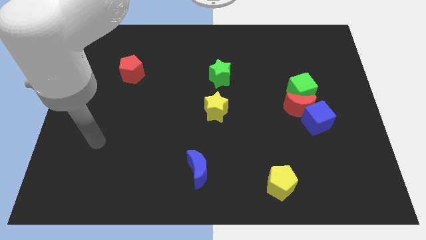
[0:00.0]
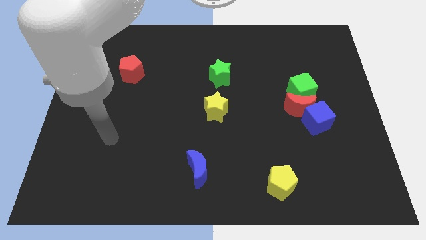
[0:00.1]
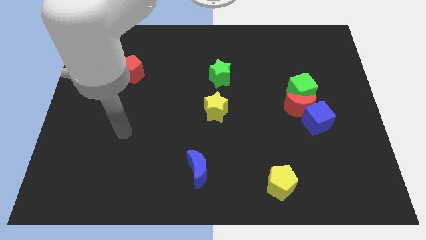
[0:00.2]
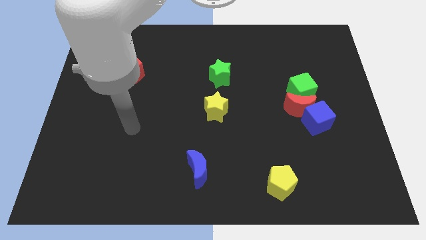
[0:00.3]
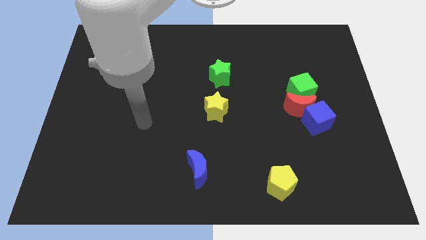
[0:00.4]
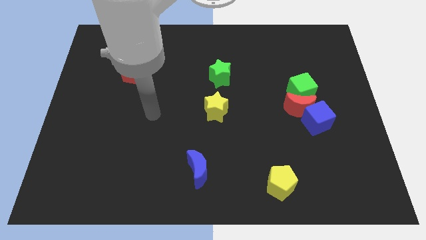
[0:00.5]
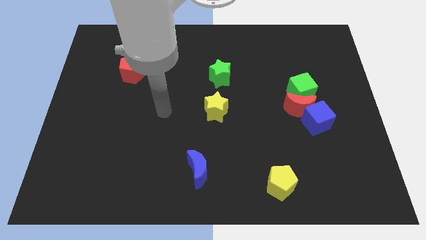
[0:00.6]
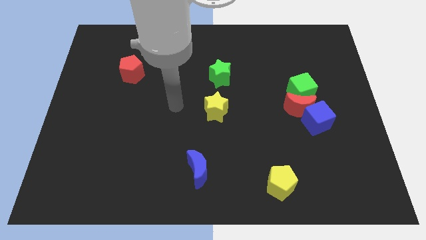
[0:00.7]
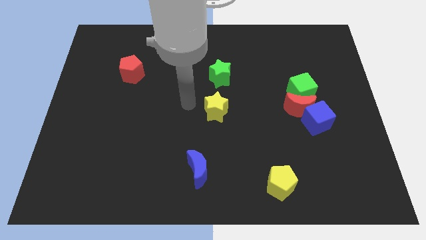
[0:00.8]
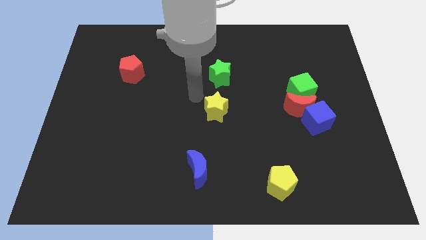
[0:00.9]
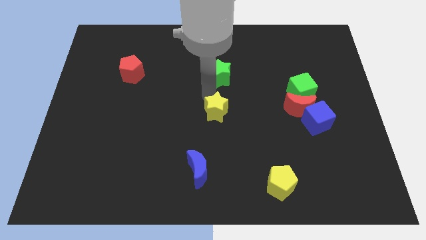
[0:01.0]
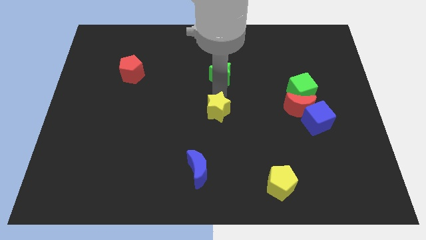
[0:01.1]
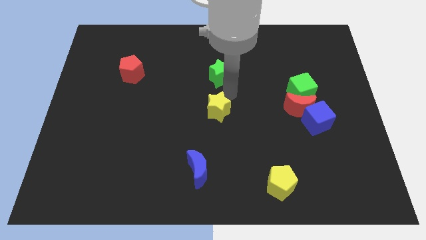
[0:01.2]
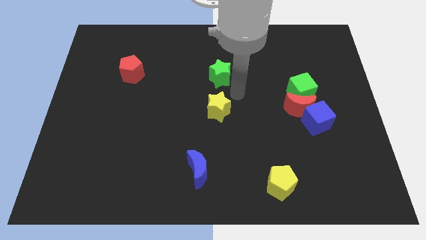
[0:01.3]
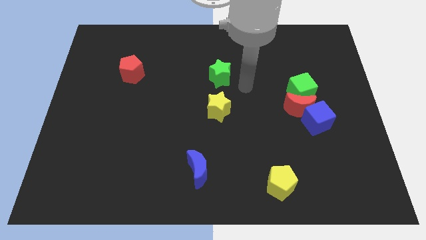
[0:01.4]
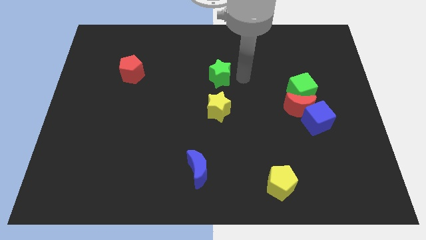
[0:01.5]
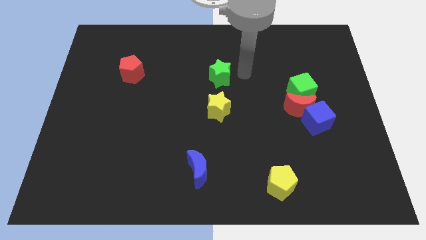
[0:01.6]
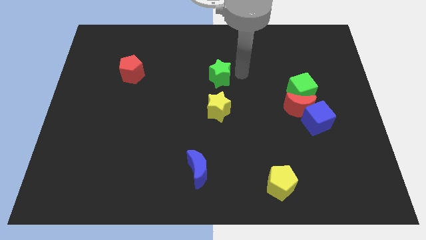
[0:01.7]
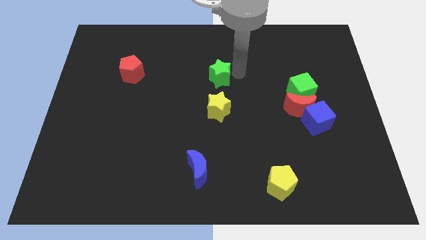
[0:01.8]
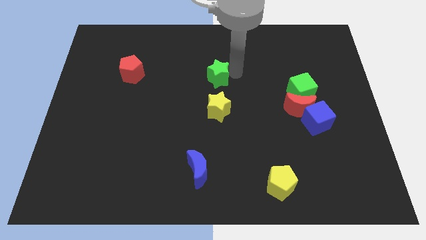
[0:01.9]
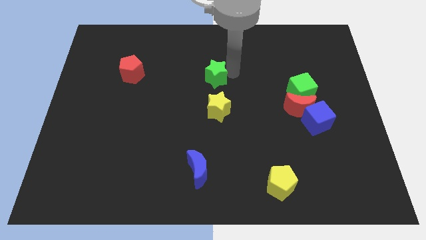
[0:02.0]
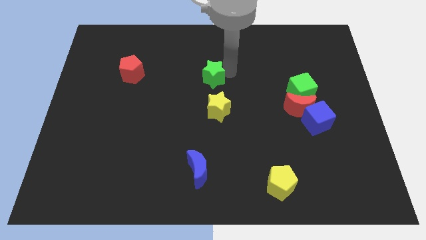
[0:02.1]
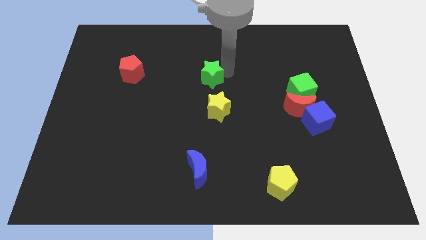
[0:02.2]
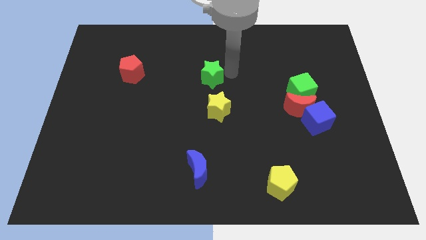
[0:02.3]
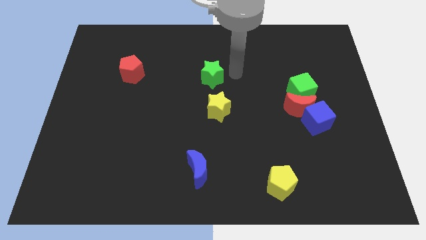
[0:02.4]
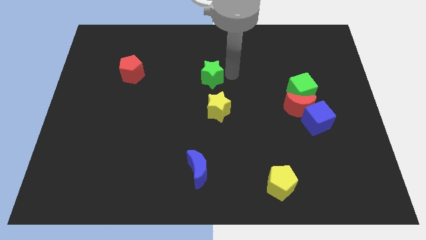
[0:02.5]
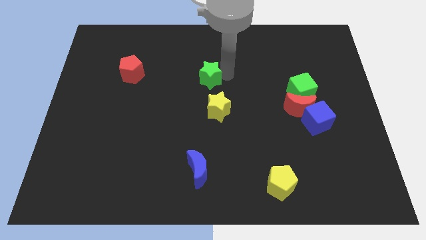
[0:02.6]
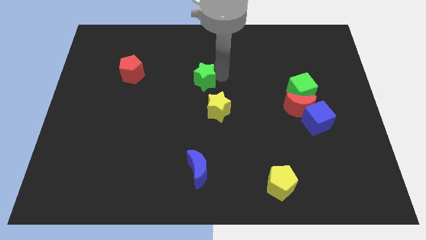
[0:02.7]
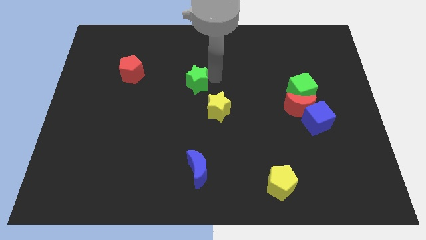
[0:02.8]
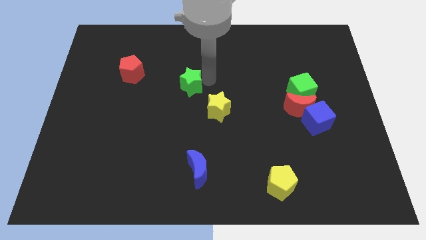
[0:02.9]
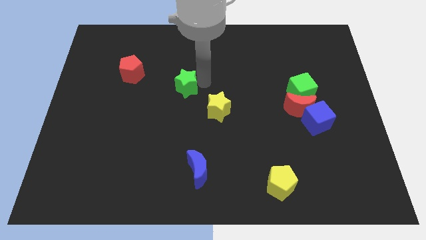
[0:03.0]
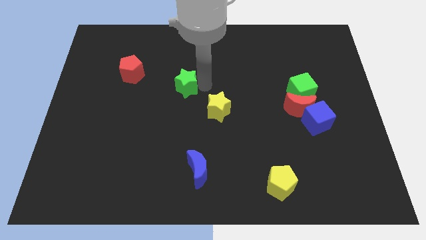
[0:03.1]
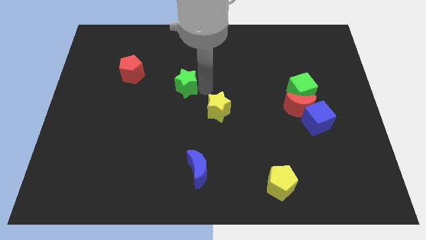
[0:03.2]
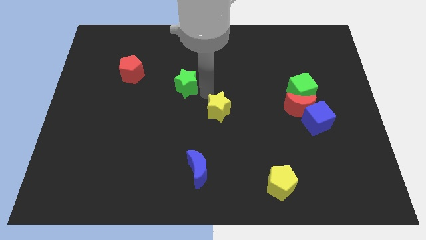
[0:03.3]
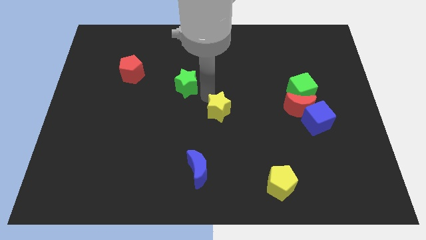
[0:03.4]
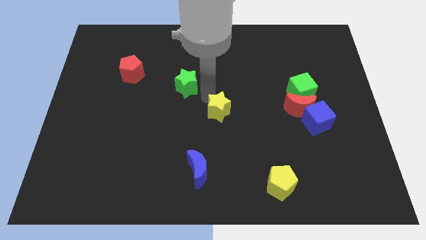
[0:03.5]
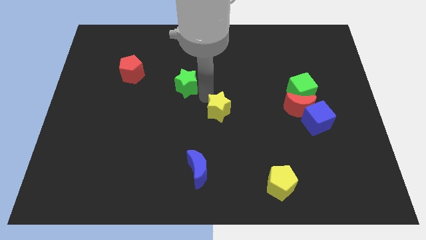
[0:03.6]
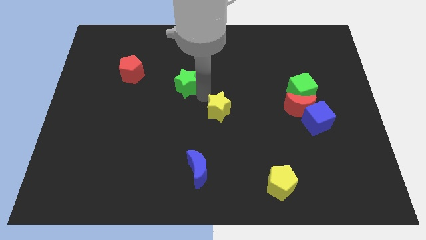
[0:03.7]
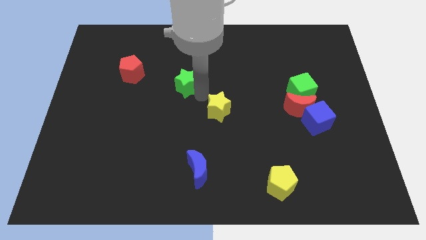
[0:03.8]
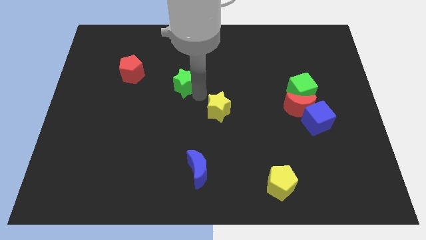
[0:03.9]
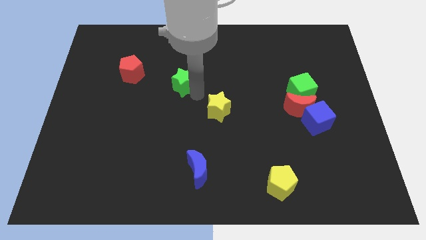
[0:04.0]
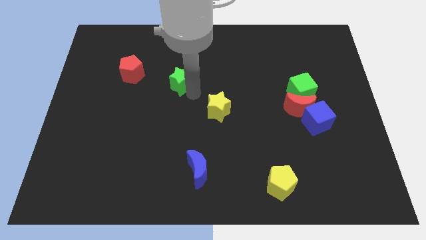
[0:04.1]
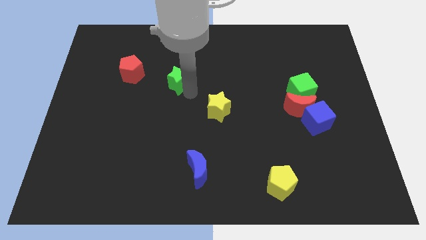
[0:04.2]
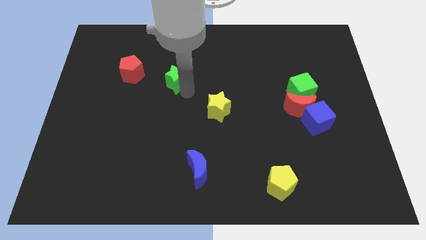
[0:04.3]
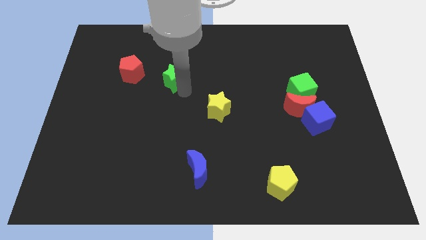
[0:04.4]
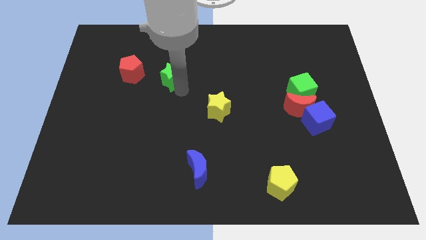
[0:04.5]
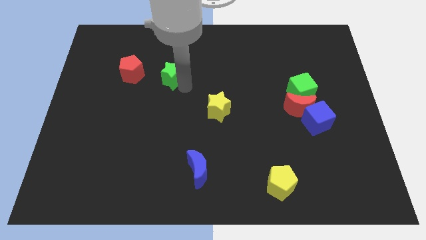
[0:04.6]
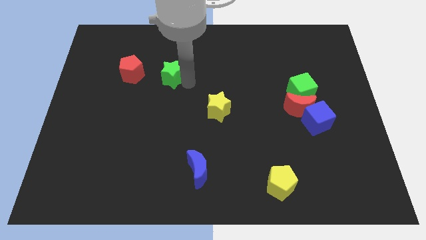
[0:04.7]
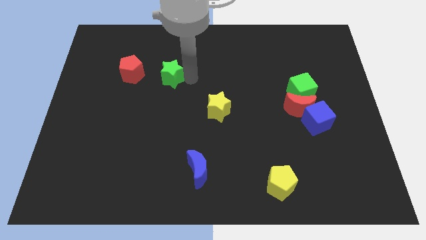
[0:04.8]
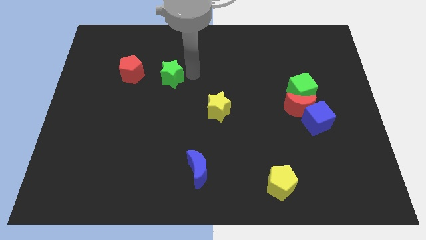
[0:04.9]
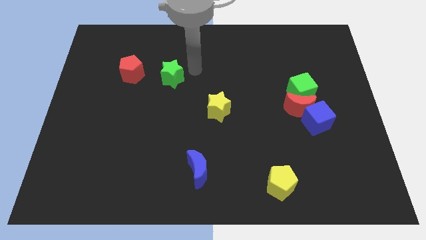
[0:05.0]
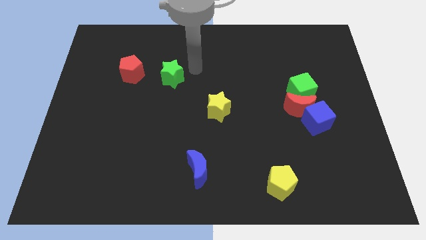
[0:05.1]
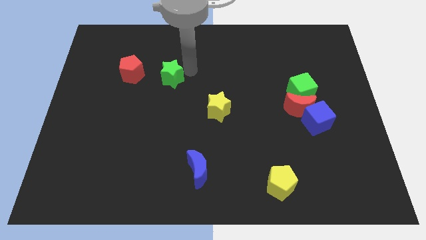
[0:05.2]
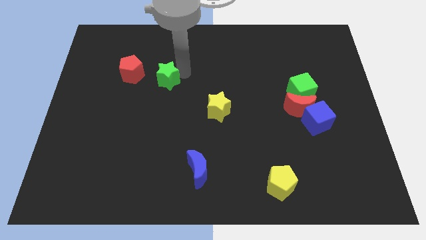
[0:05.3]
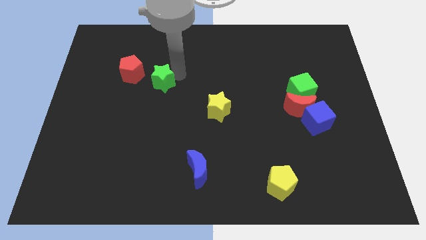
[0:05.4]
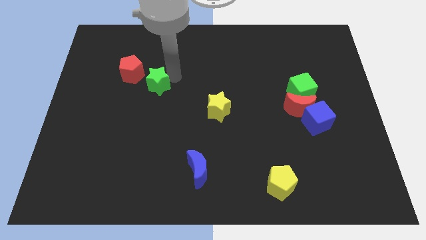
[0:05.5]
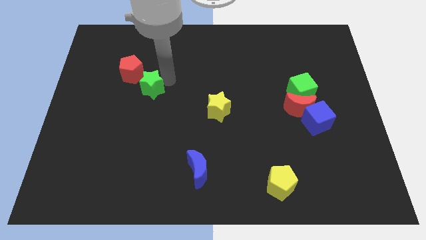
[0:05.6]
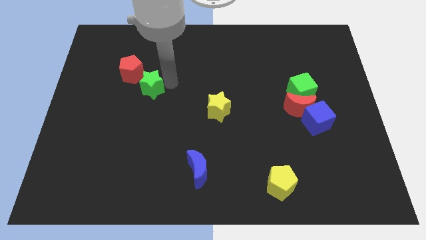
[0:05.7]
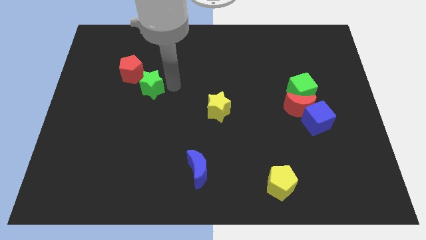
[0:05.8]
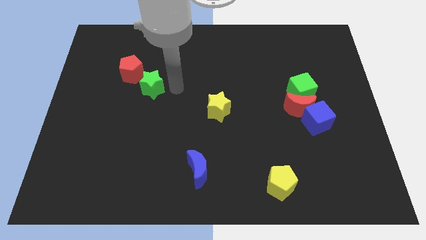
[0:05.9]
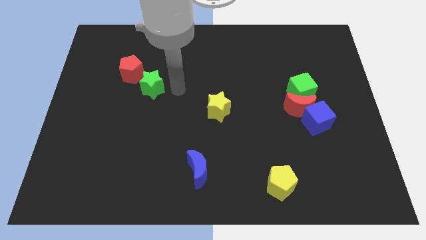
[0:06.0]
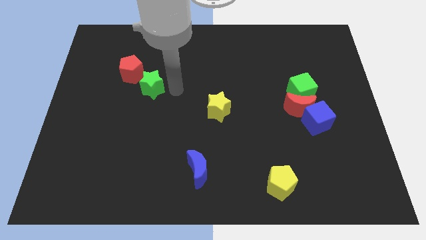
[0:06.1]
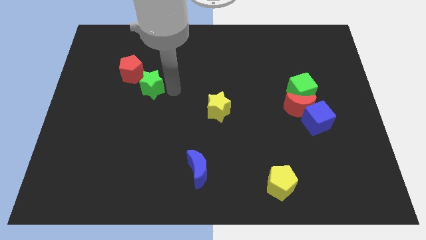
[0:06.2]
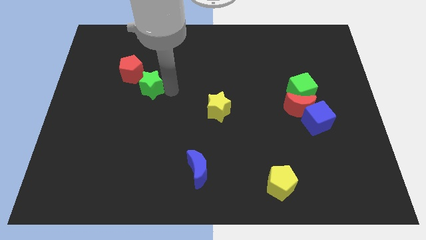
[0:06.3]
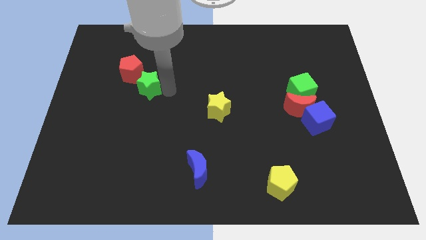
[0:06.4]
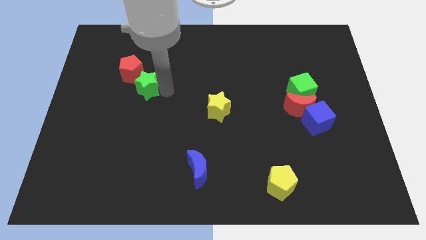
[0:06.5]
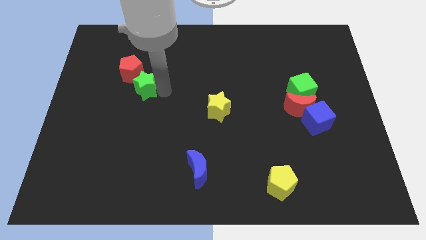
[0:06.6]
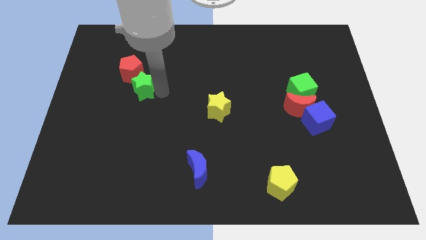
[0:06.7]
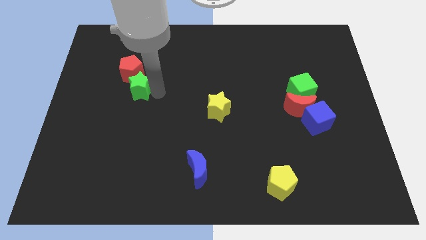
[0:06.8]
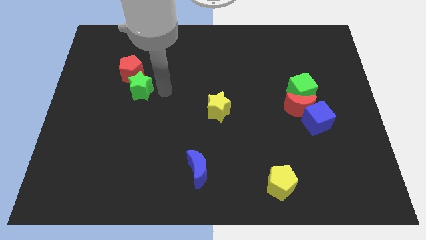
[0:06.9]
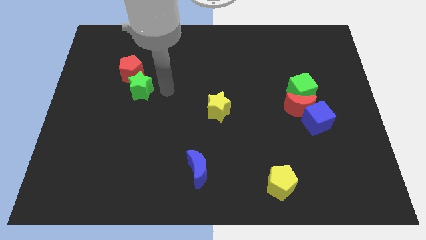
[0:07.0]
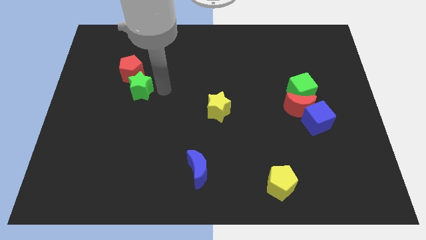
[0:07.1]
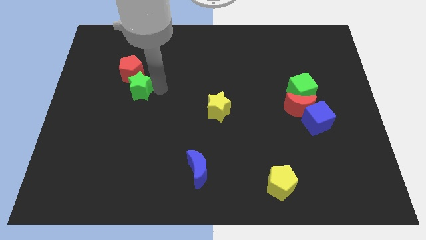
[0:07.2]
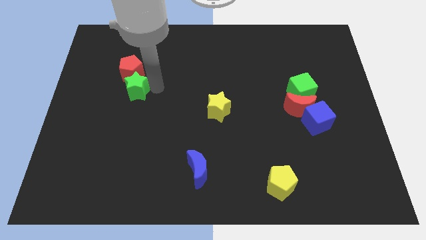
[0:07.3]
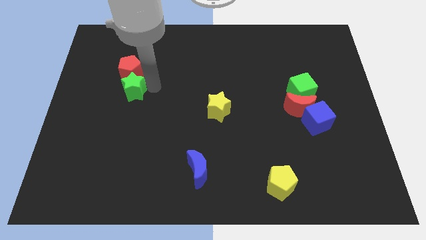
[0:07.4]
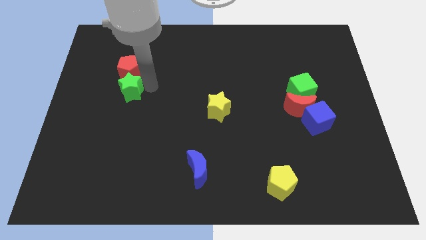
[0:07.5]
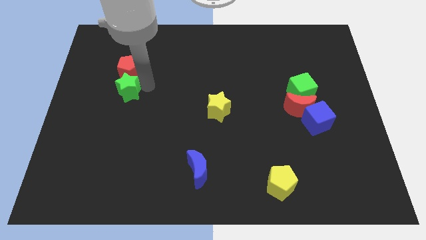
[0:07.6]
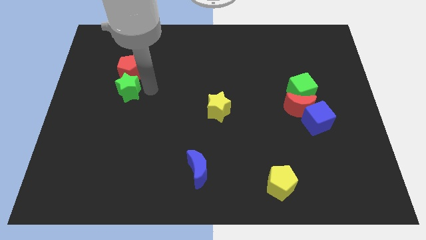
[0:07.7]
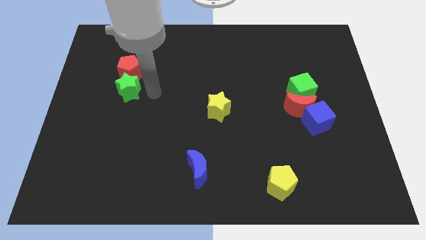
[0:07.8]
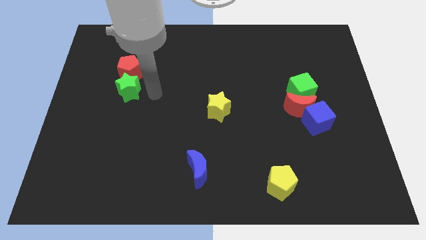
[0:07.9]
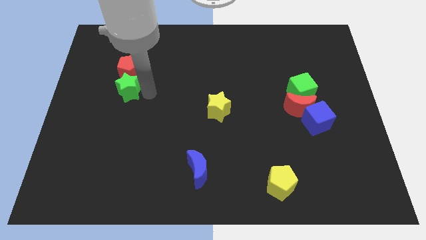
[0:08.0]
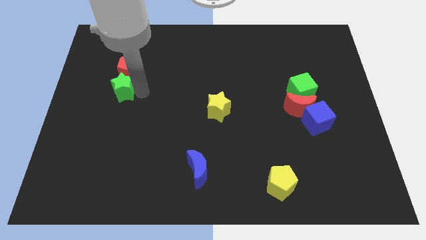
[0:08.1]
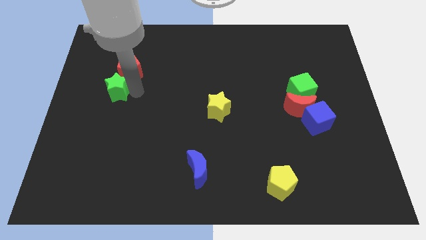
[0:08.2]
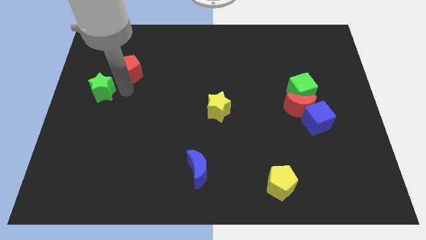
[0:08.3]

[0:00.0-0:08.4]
slide the green star to the center left
